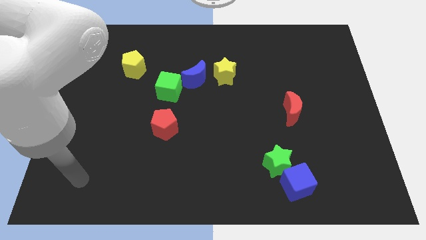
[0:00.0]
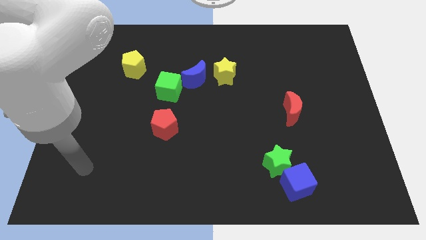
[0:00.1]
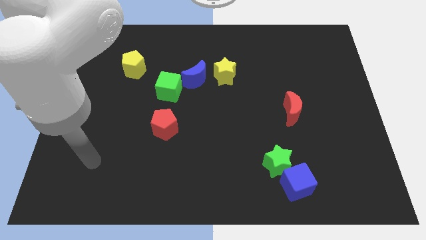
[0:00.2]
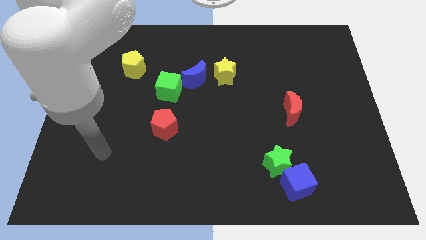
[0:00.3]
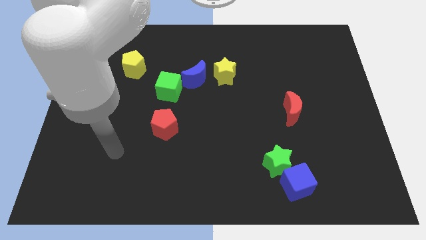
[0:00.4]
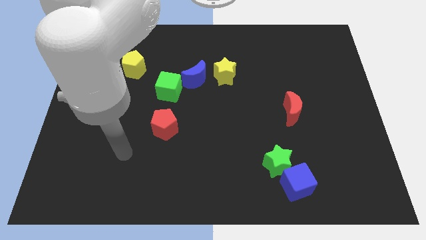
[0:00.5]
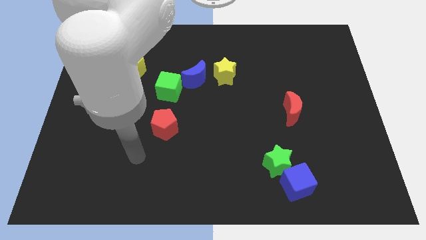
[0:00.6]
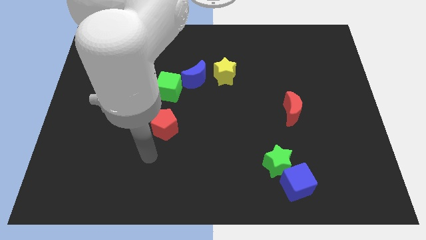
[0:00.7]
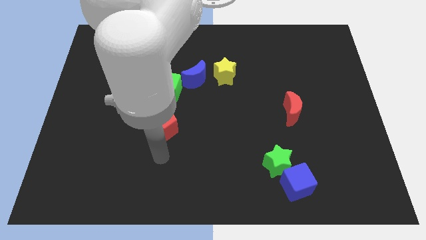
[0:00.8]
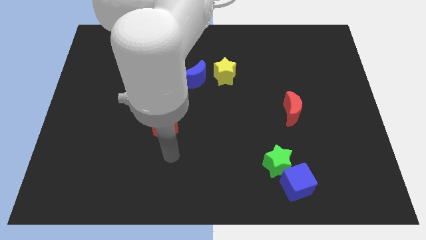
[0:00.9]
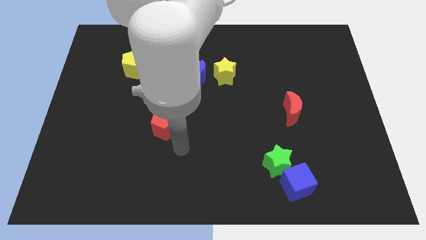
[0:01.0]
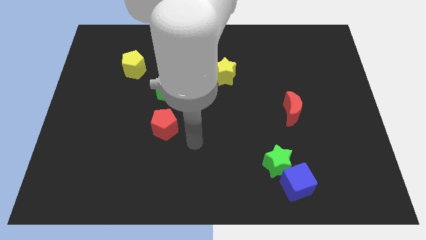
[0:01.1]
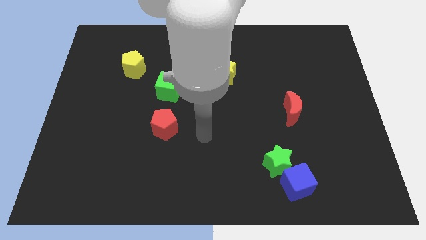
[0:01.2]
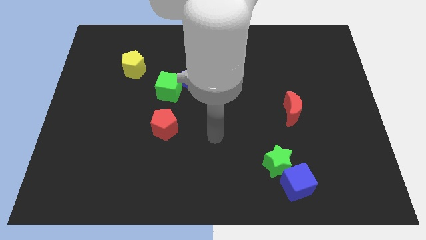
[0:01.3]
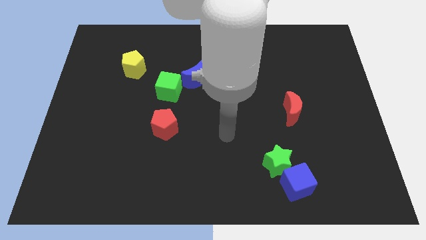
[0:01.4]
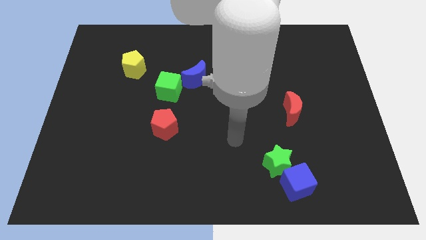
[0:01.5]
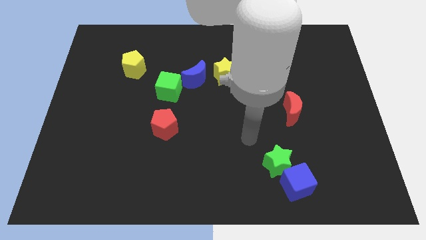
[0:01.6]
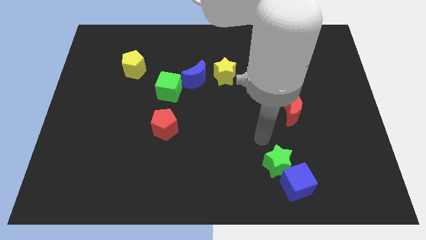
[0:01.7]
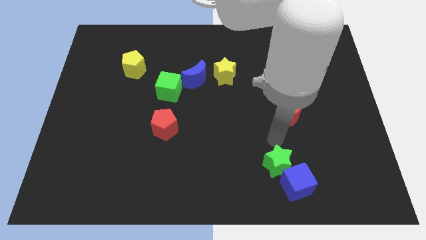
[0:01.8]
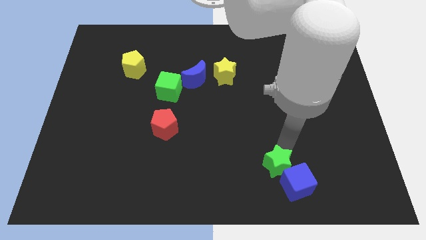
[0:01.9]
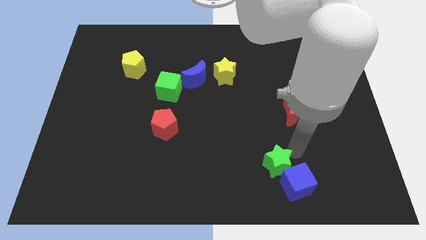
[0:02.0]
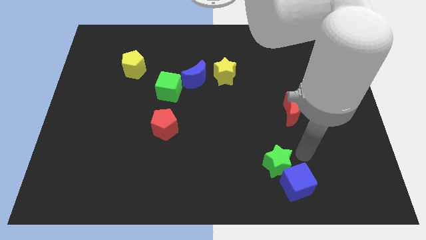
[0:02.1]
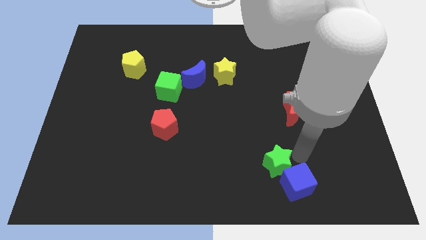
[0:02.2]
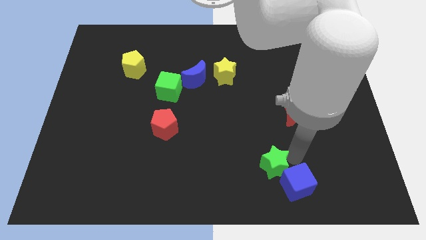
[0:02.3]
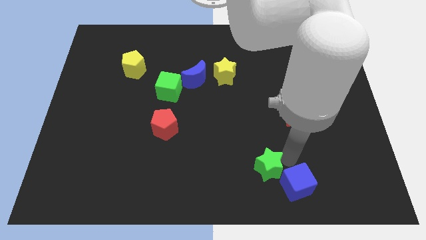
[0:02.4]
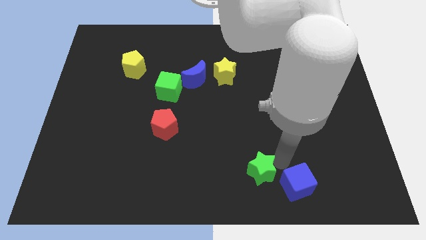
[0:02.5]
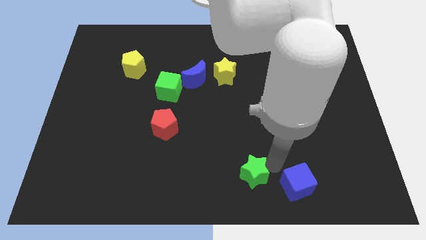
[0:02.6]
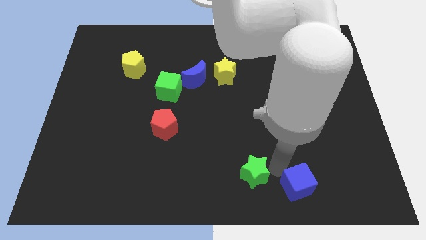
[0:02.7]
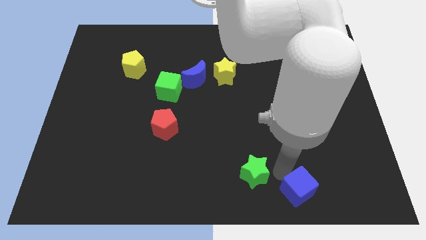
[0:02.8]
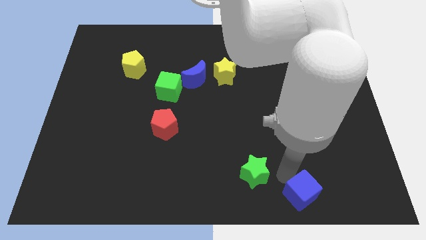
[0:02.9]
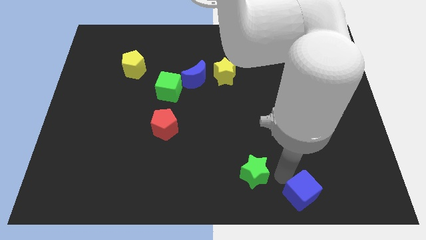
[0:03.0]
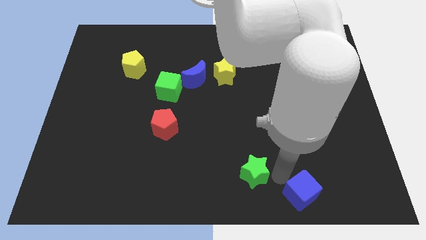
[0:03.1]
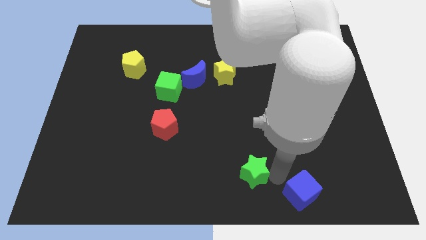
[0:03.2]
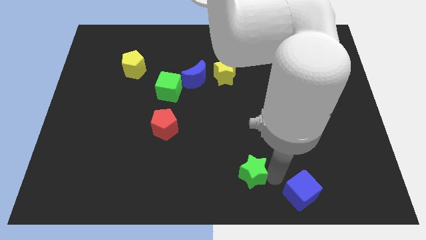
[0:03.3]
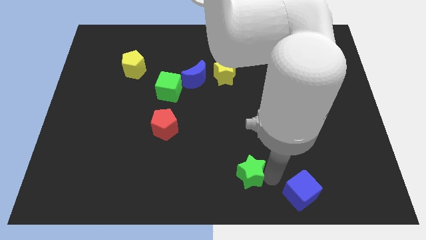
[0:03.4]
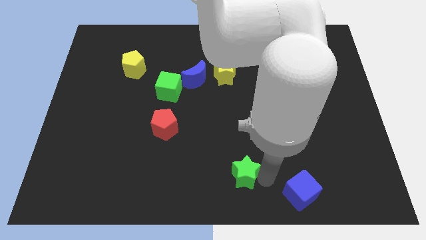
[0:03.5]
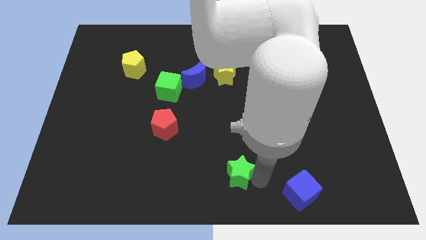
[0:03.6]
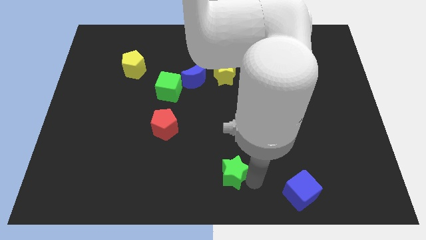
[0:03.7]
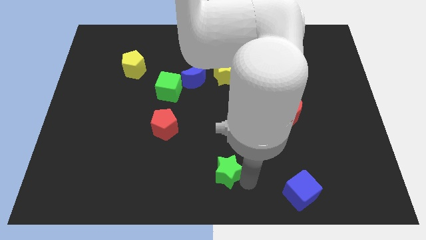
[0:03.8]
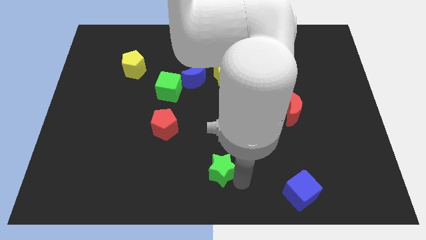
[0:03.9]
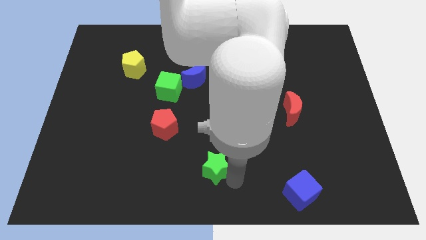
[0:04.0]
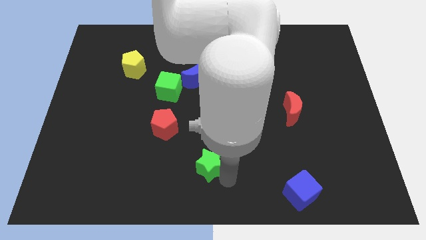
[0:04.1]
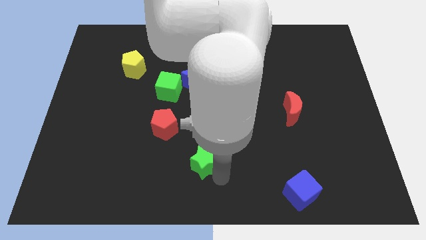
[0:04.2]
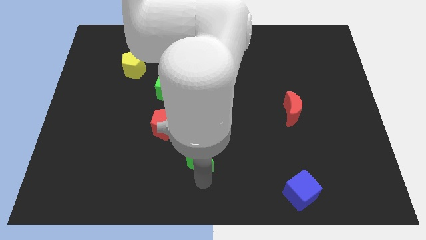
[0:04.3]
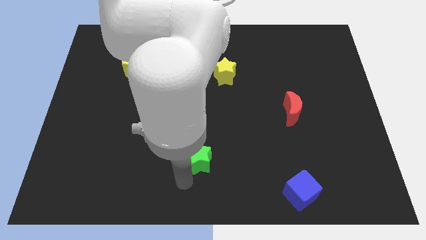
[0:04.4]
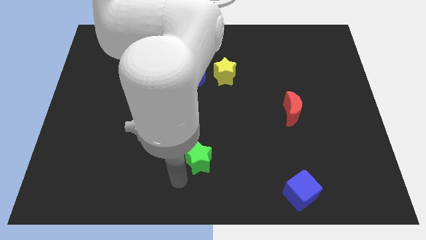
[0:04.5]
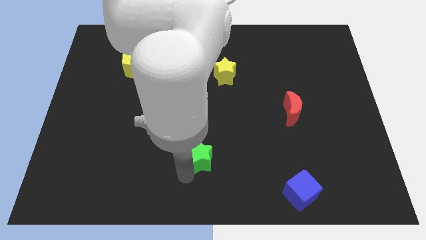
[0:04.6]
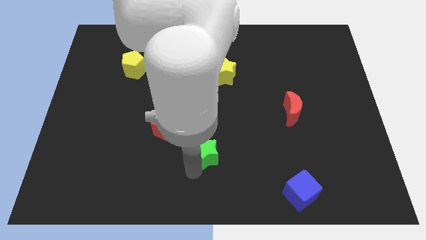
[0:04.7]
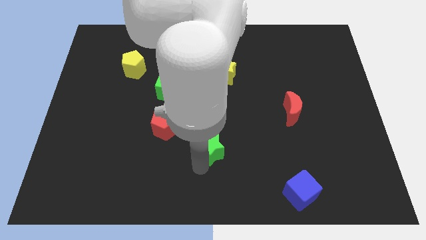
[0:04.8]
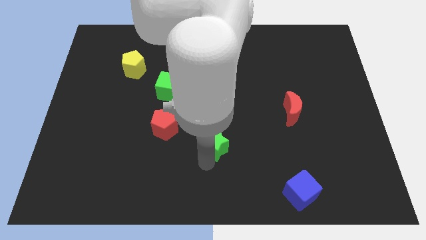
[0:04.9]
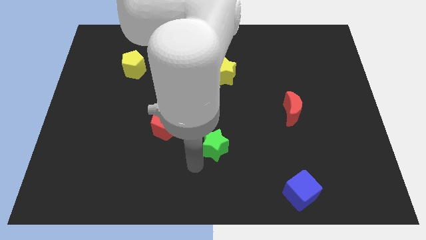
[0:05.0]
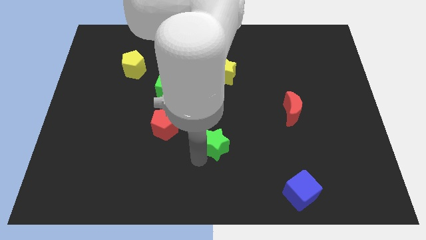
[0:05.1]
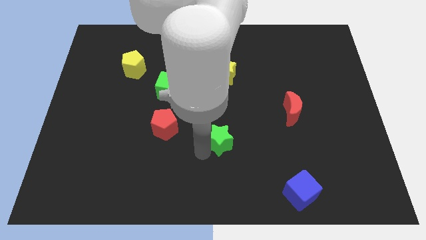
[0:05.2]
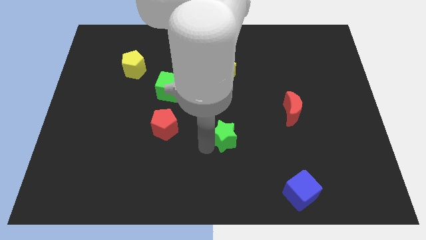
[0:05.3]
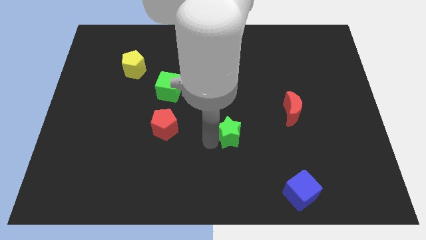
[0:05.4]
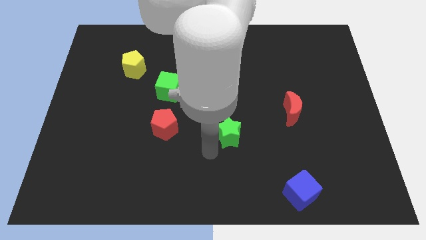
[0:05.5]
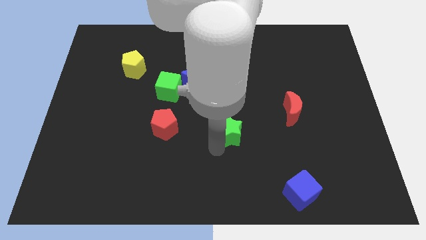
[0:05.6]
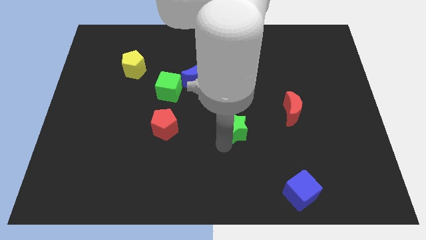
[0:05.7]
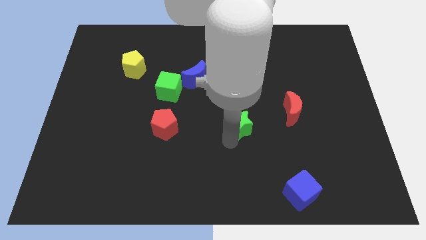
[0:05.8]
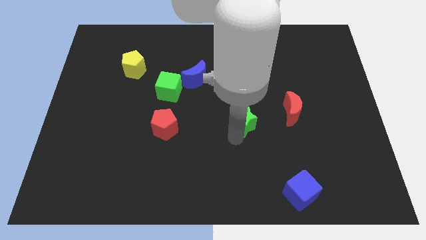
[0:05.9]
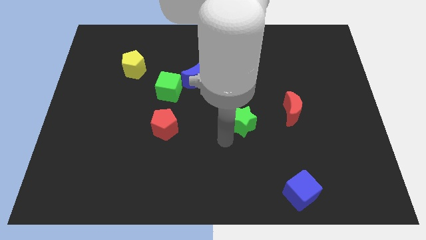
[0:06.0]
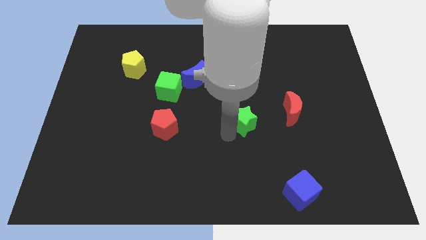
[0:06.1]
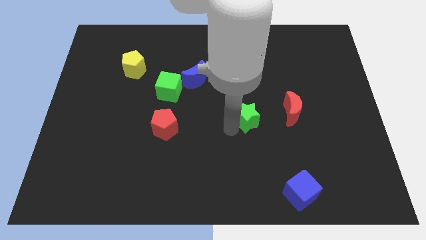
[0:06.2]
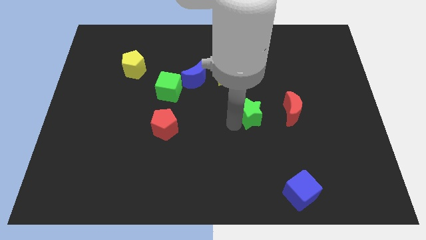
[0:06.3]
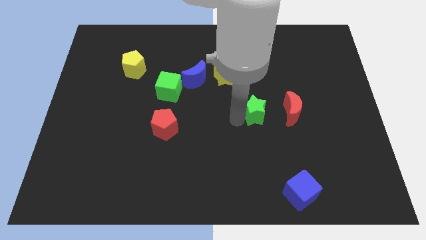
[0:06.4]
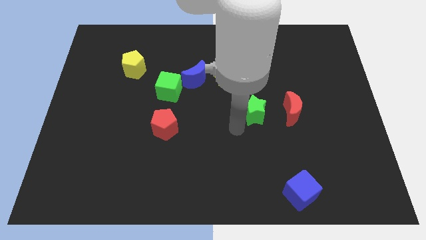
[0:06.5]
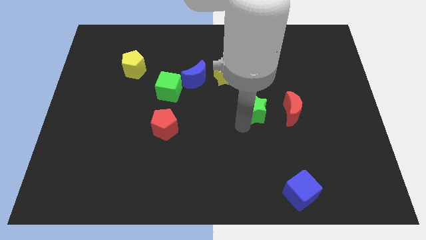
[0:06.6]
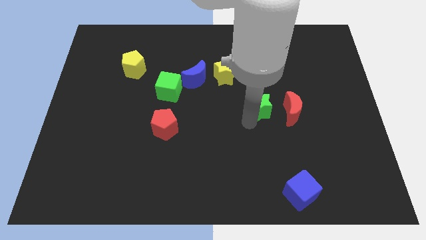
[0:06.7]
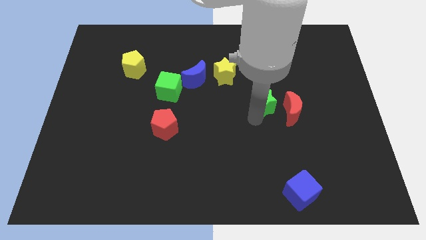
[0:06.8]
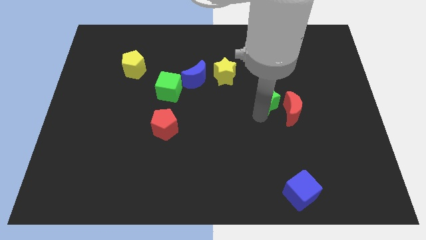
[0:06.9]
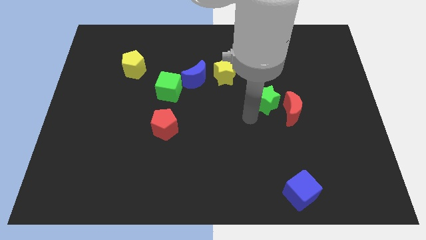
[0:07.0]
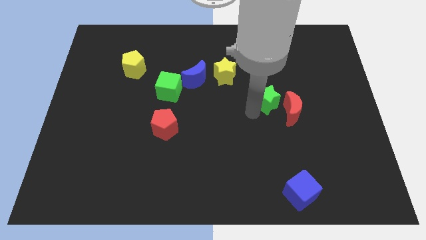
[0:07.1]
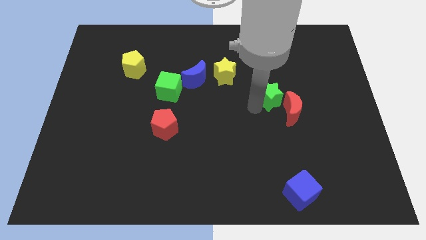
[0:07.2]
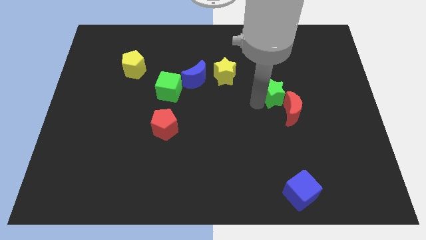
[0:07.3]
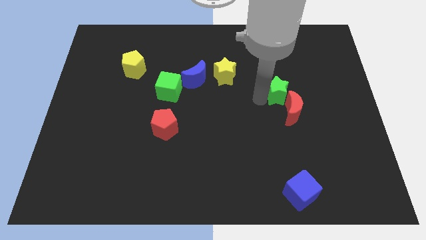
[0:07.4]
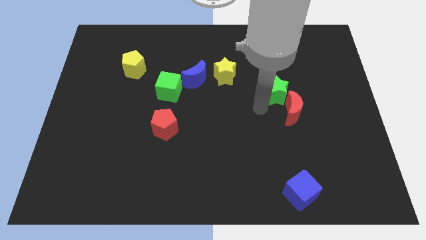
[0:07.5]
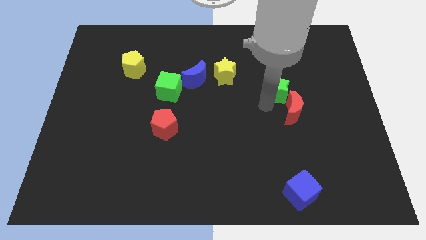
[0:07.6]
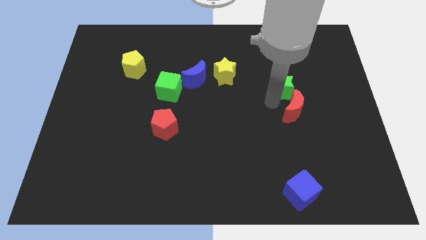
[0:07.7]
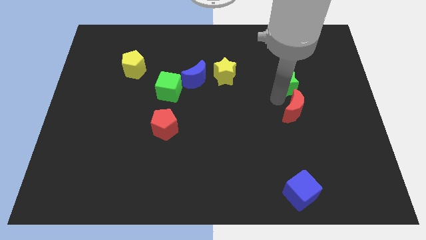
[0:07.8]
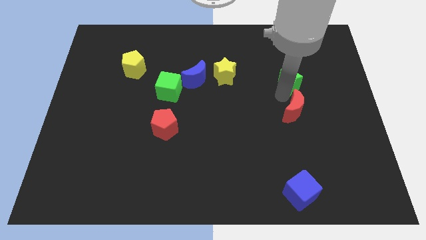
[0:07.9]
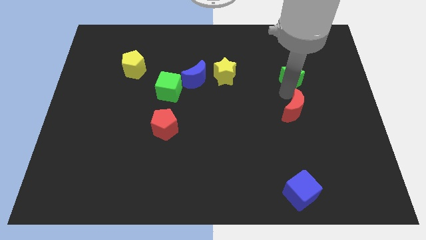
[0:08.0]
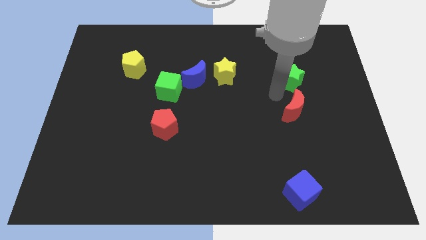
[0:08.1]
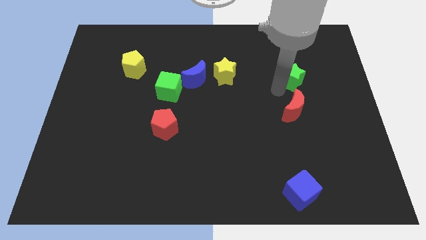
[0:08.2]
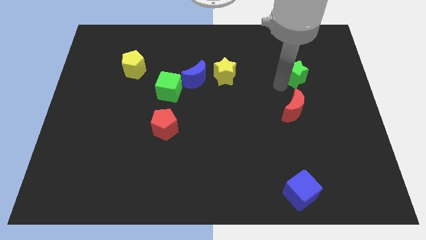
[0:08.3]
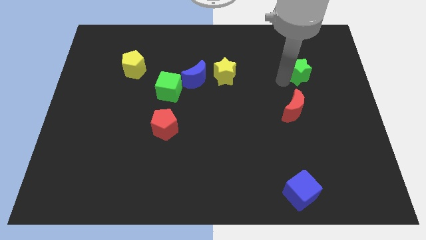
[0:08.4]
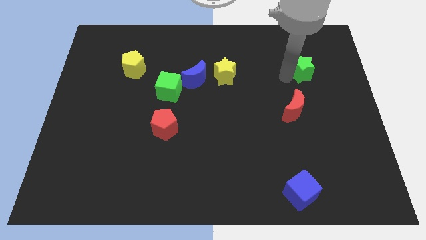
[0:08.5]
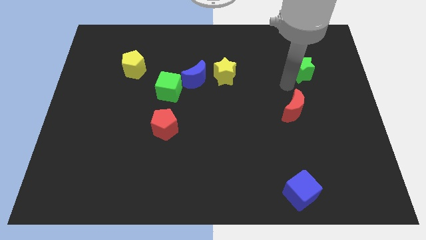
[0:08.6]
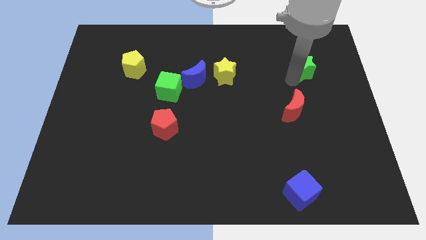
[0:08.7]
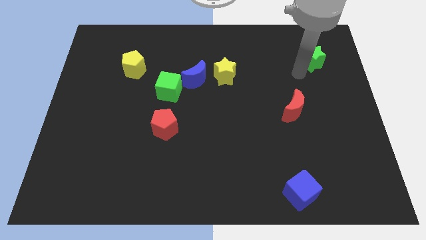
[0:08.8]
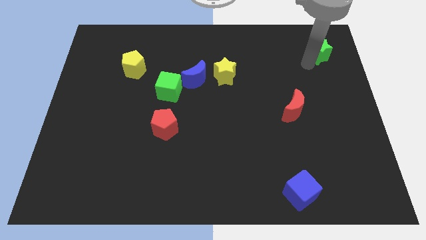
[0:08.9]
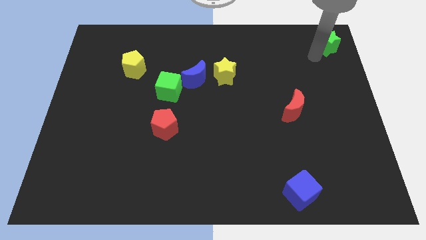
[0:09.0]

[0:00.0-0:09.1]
push the green star to the top right of the board
